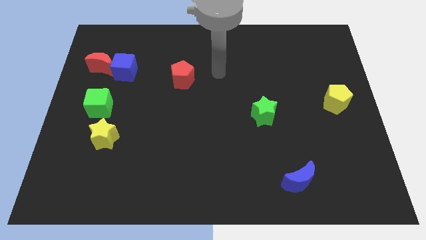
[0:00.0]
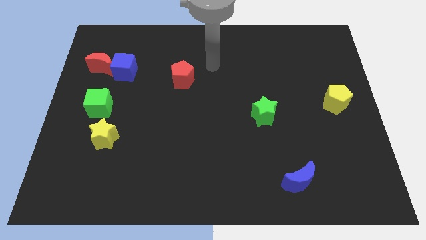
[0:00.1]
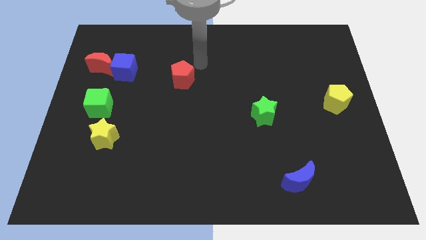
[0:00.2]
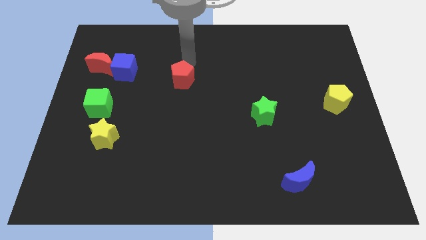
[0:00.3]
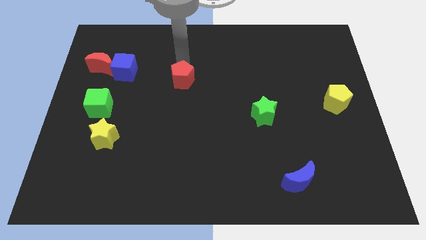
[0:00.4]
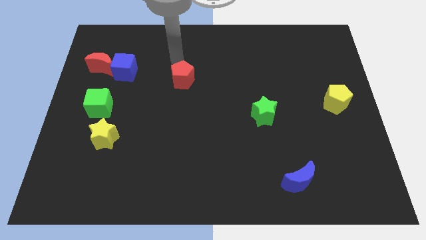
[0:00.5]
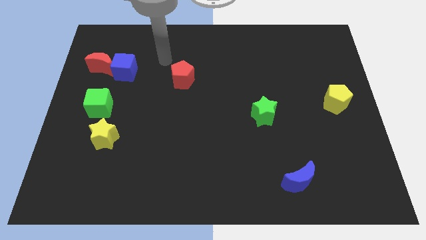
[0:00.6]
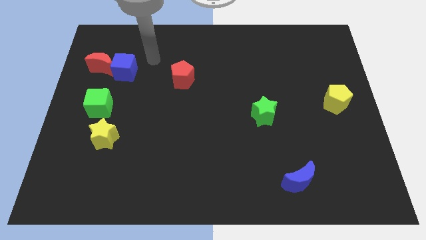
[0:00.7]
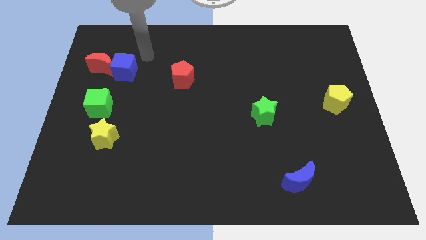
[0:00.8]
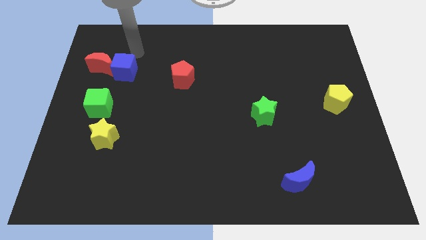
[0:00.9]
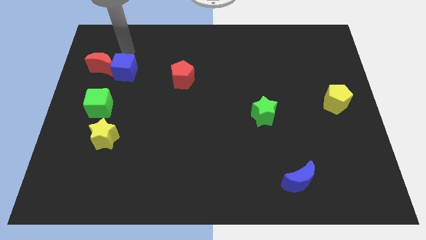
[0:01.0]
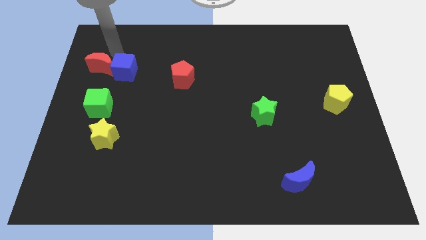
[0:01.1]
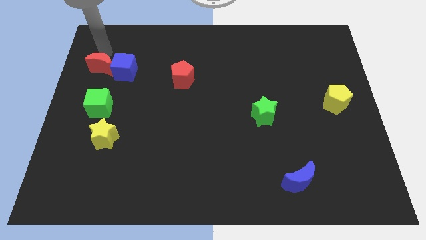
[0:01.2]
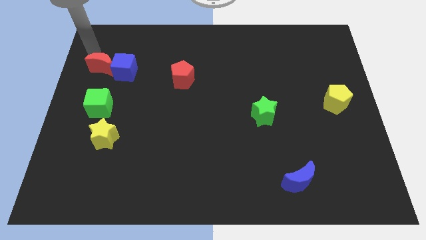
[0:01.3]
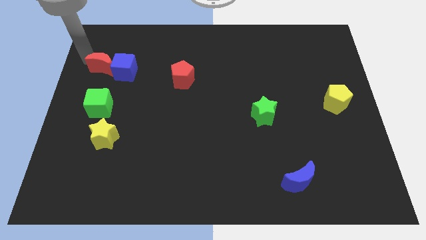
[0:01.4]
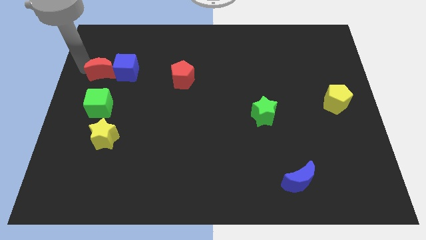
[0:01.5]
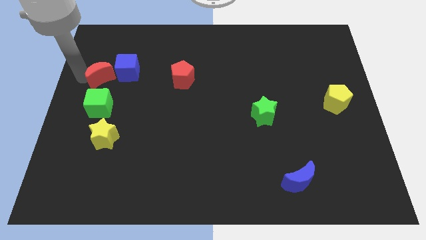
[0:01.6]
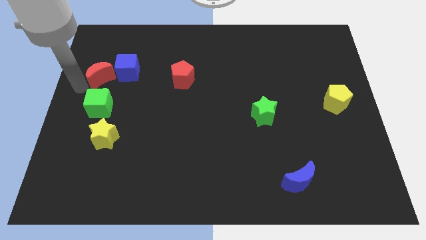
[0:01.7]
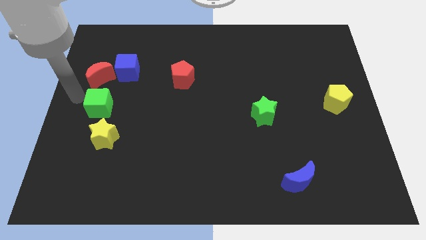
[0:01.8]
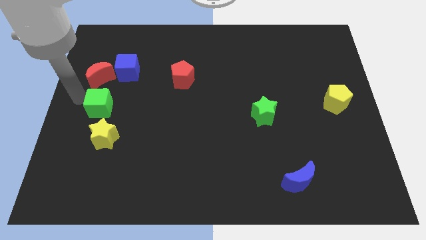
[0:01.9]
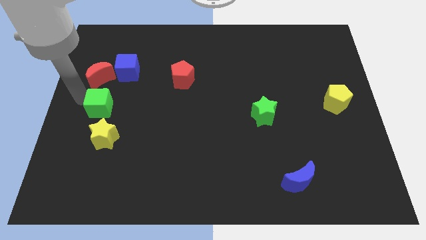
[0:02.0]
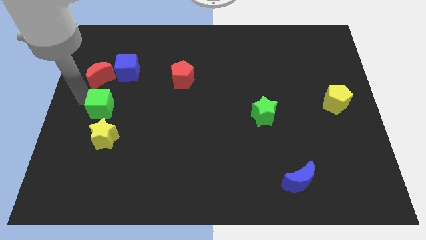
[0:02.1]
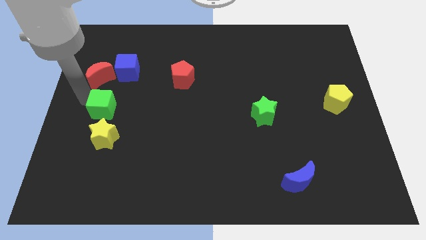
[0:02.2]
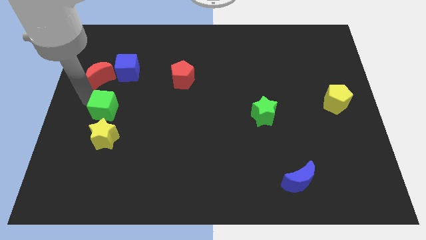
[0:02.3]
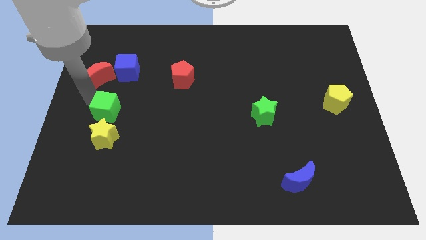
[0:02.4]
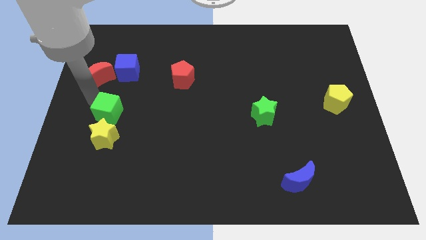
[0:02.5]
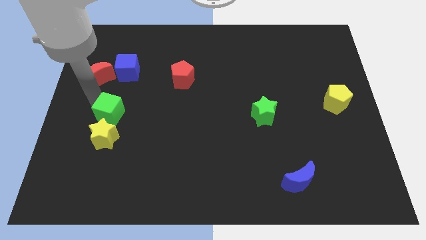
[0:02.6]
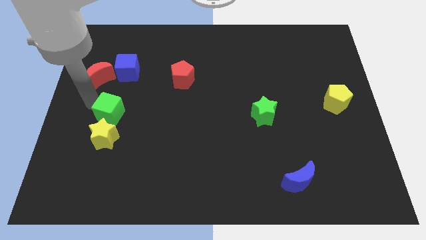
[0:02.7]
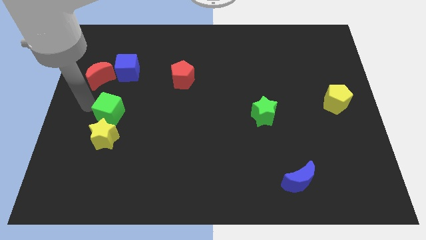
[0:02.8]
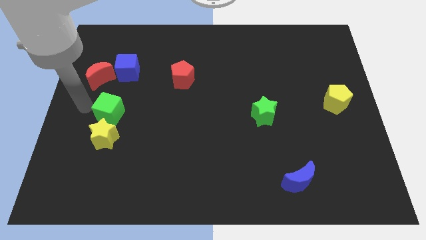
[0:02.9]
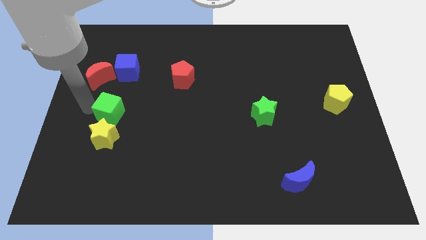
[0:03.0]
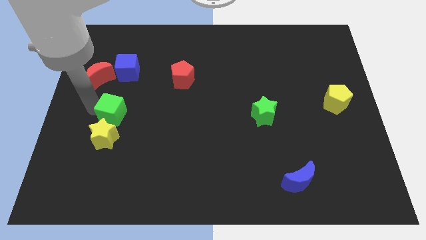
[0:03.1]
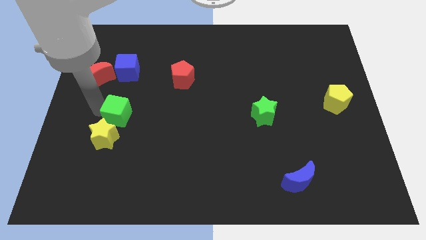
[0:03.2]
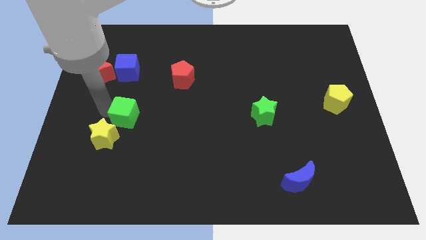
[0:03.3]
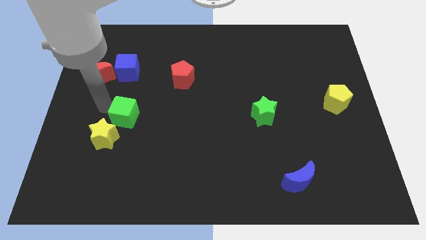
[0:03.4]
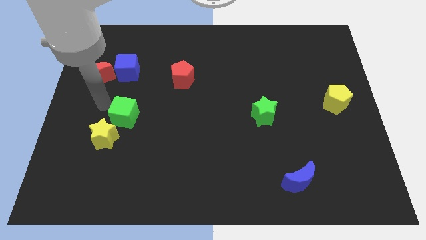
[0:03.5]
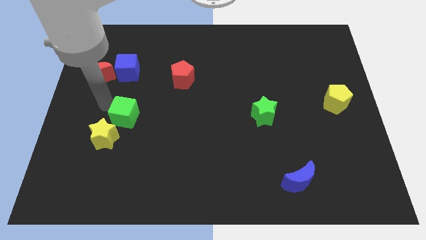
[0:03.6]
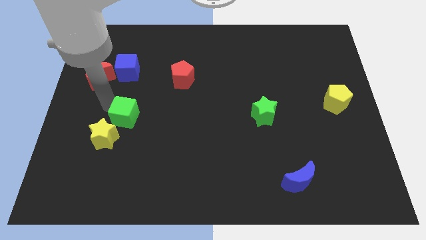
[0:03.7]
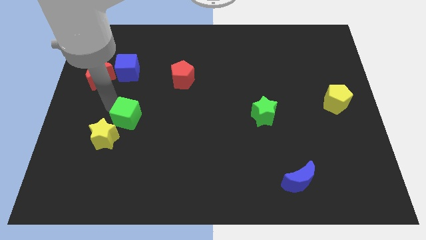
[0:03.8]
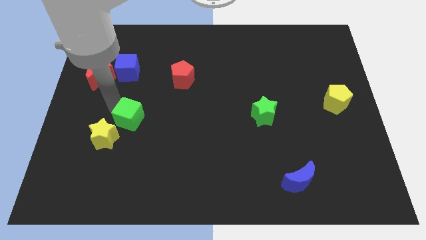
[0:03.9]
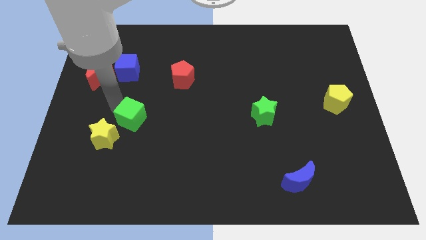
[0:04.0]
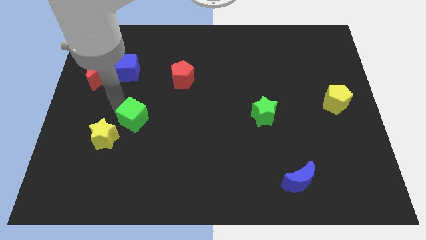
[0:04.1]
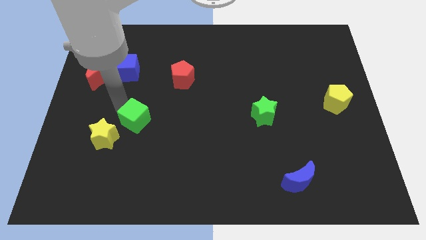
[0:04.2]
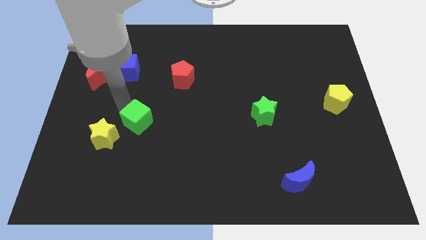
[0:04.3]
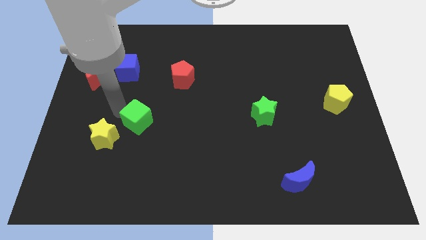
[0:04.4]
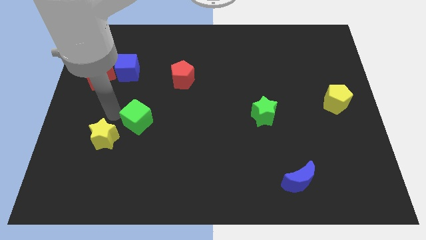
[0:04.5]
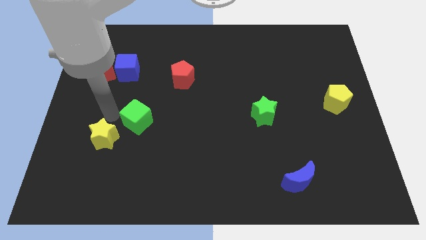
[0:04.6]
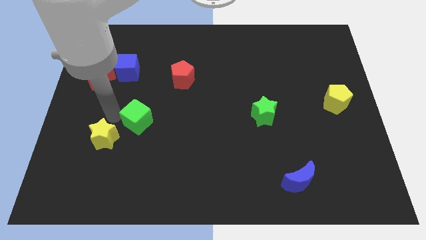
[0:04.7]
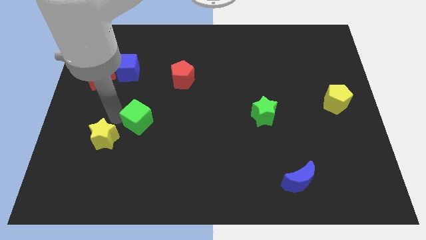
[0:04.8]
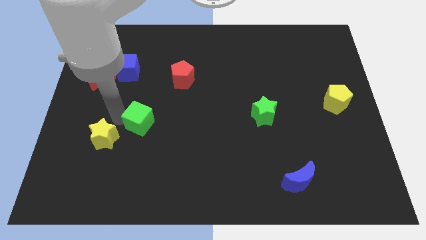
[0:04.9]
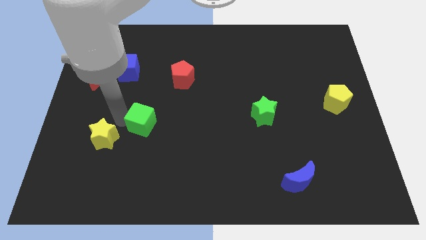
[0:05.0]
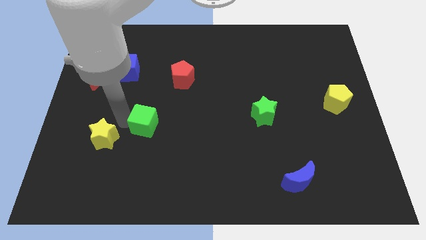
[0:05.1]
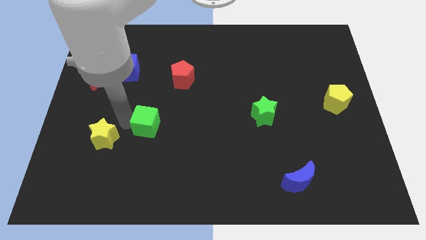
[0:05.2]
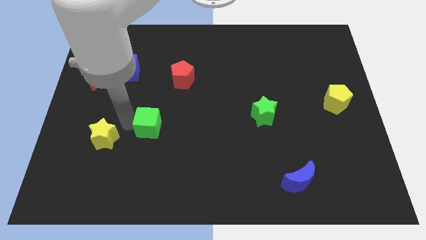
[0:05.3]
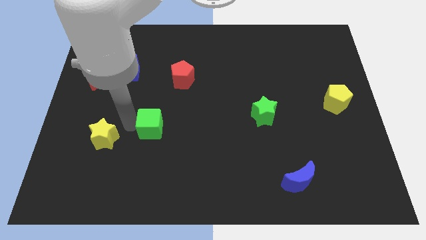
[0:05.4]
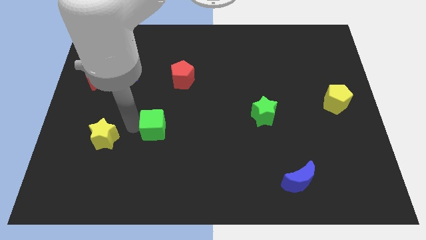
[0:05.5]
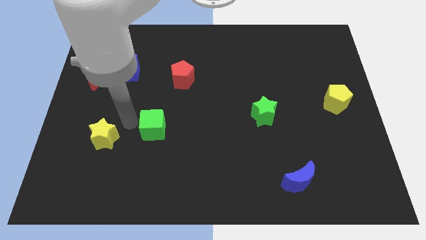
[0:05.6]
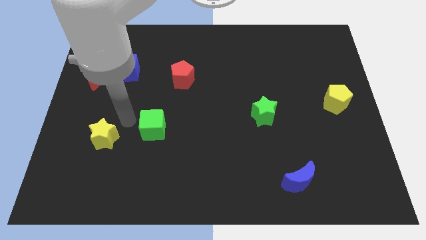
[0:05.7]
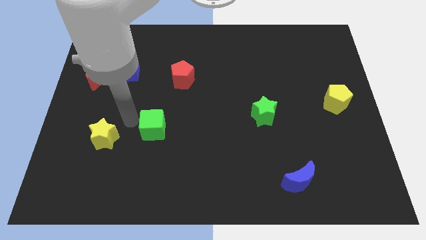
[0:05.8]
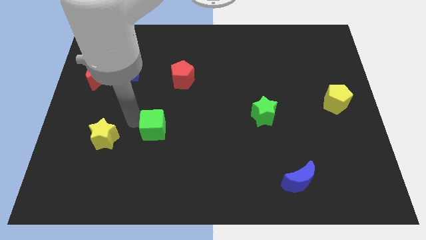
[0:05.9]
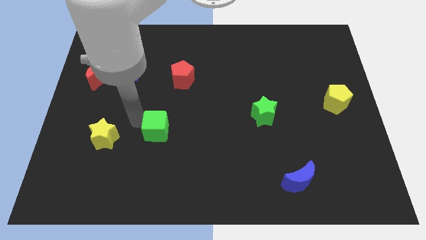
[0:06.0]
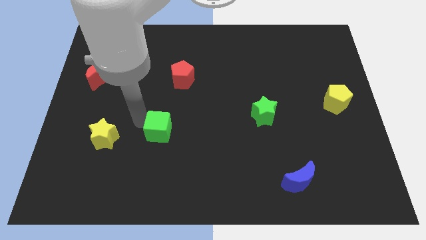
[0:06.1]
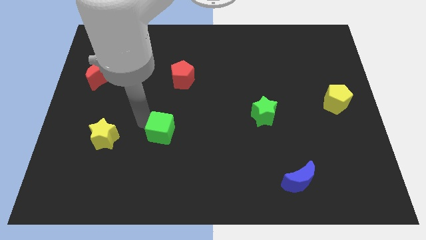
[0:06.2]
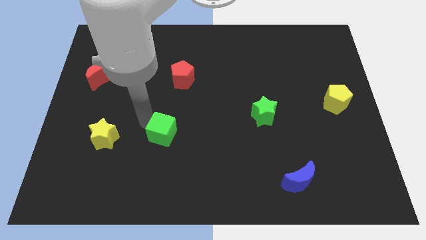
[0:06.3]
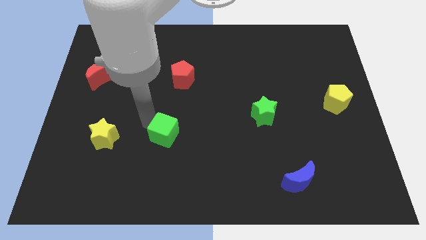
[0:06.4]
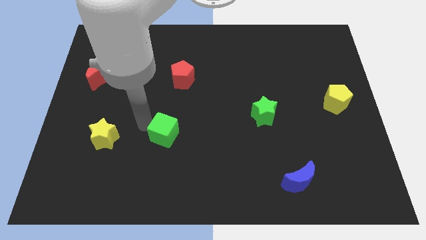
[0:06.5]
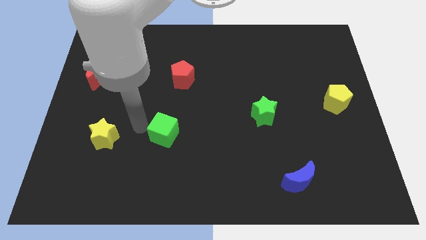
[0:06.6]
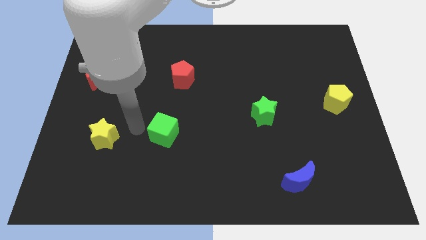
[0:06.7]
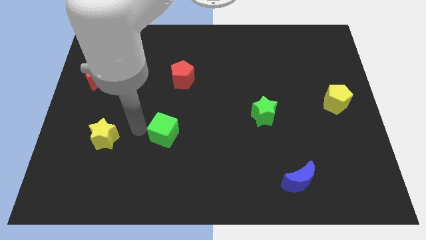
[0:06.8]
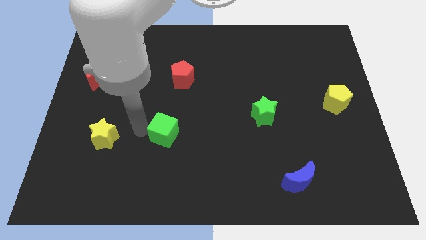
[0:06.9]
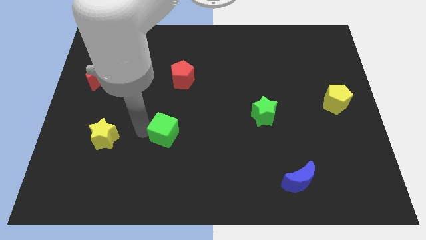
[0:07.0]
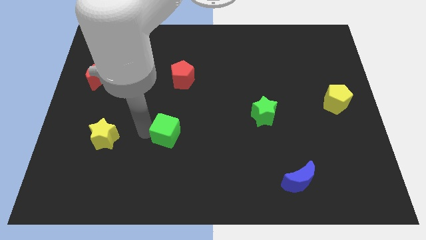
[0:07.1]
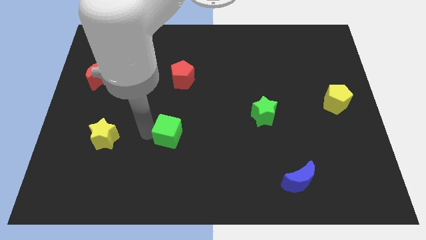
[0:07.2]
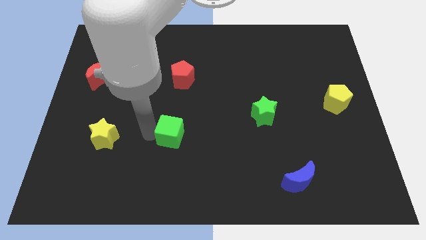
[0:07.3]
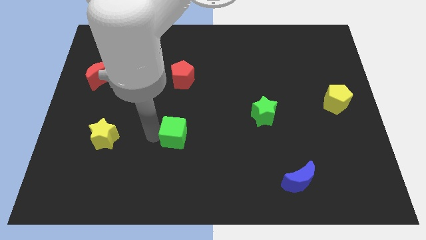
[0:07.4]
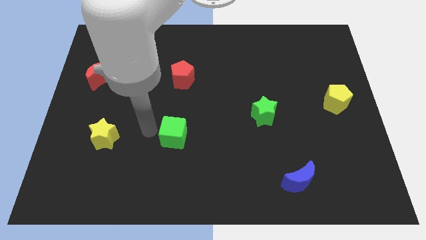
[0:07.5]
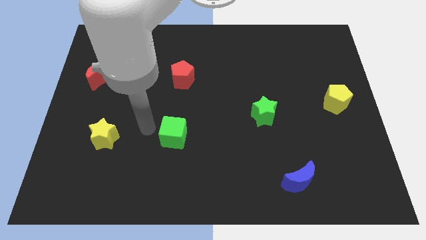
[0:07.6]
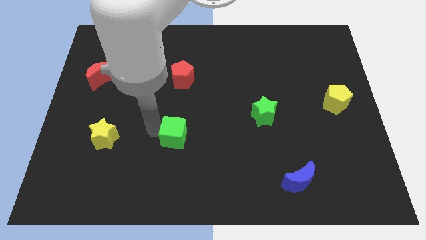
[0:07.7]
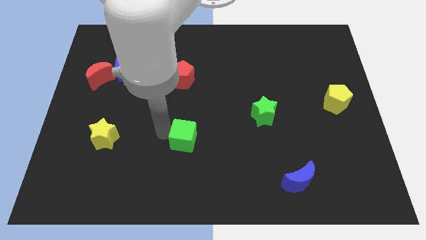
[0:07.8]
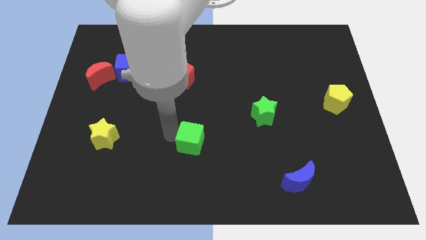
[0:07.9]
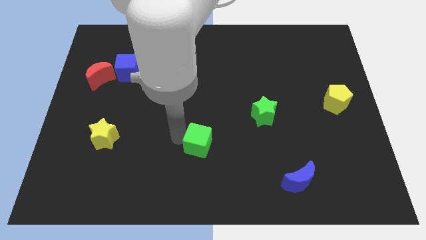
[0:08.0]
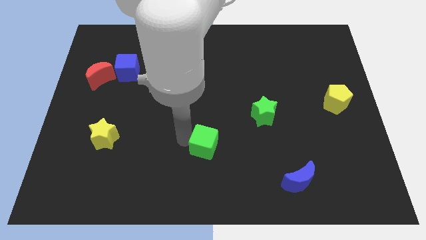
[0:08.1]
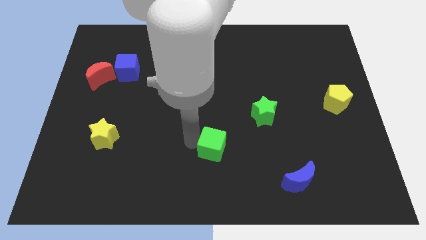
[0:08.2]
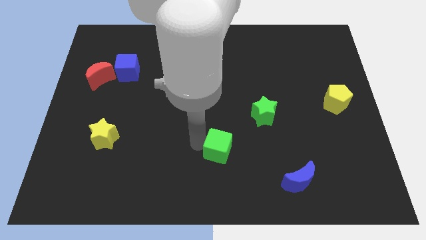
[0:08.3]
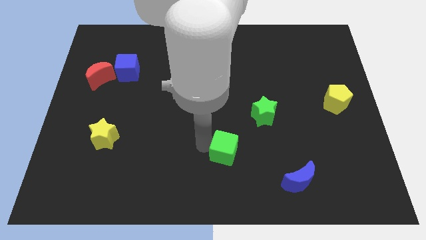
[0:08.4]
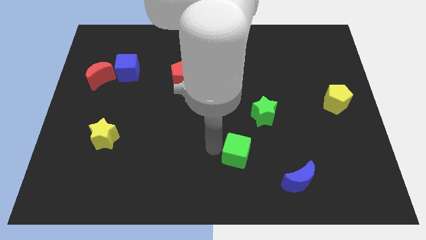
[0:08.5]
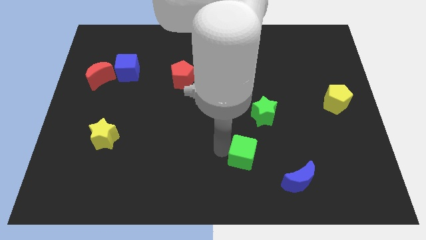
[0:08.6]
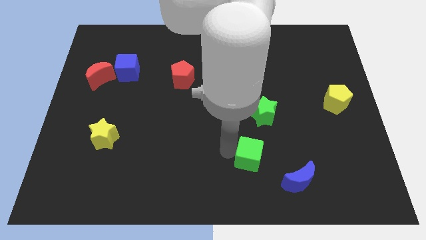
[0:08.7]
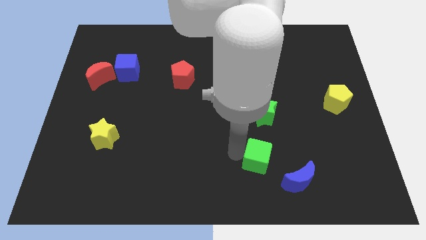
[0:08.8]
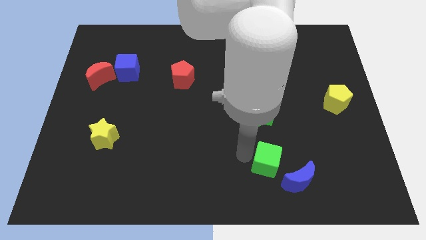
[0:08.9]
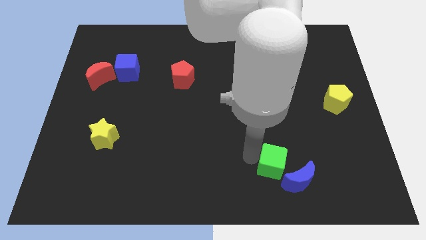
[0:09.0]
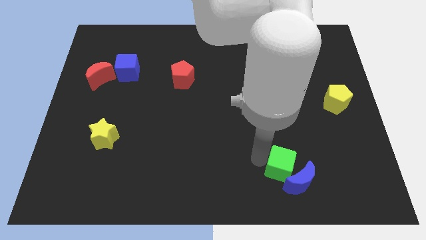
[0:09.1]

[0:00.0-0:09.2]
put the green cube to the blue moon
